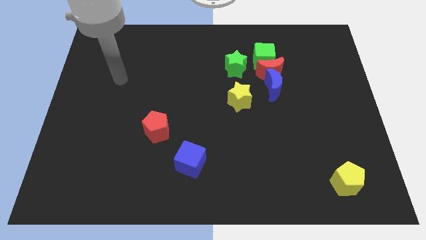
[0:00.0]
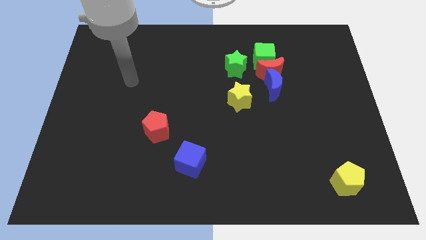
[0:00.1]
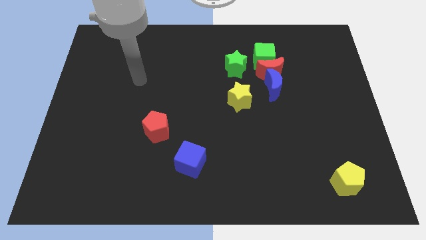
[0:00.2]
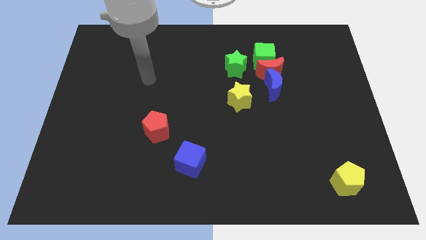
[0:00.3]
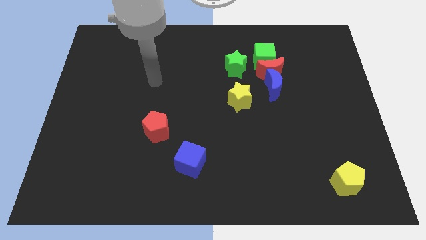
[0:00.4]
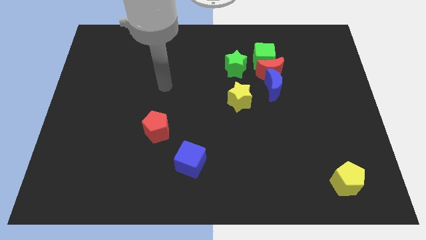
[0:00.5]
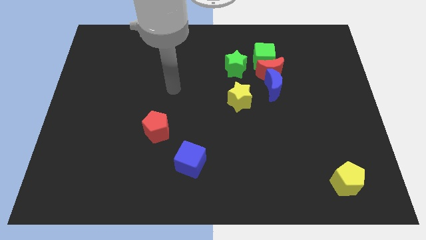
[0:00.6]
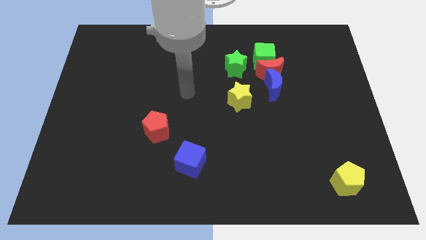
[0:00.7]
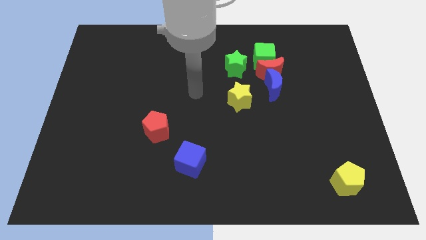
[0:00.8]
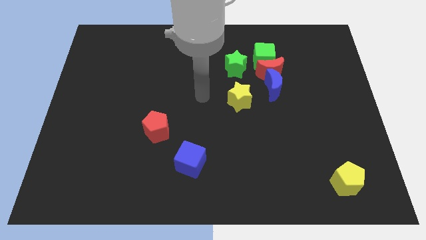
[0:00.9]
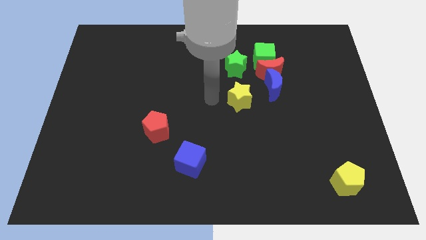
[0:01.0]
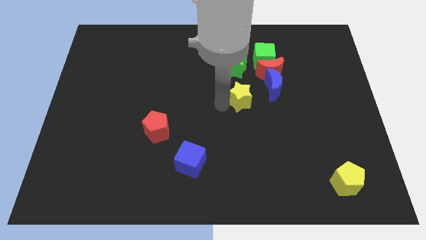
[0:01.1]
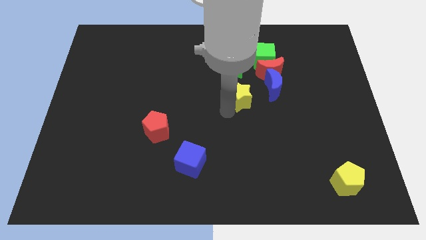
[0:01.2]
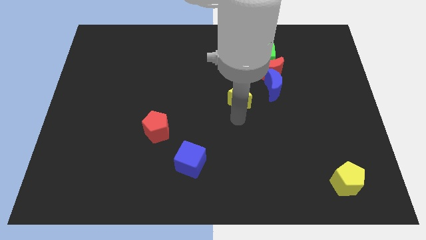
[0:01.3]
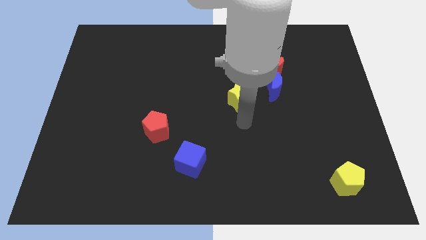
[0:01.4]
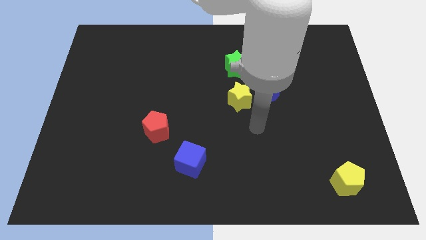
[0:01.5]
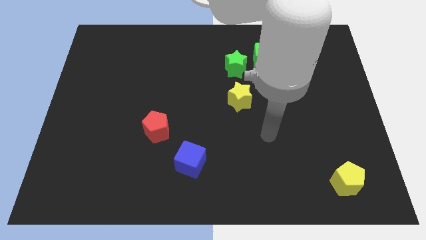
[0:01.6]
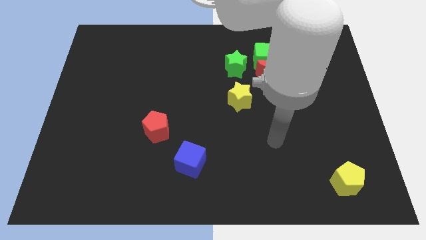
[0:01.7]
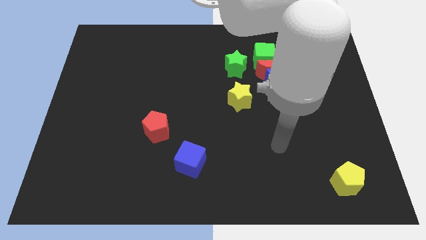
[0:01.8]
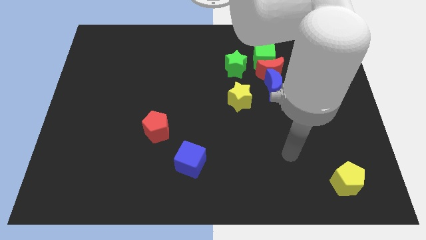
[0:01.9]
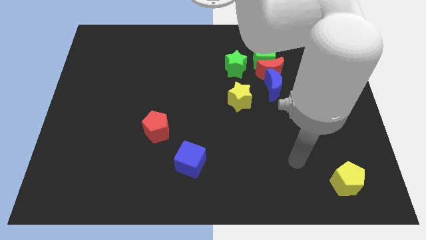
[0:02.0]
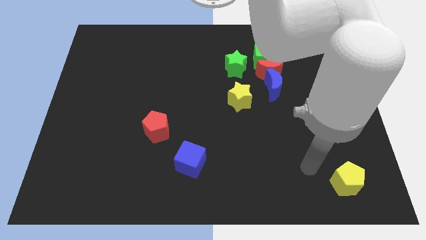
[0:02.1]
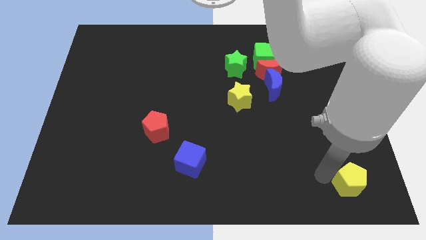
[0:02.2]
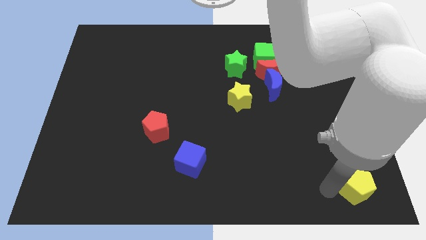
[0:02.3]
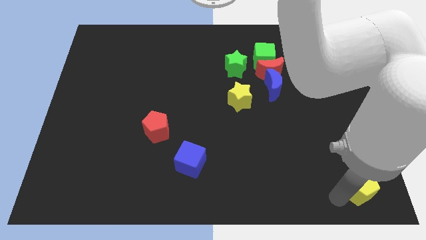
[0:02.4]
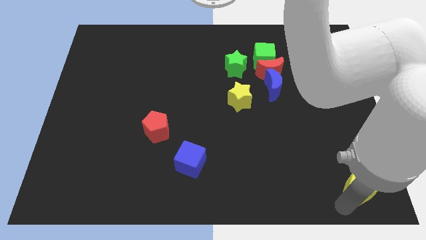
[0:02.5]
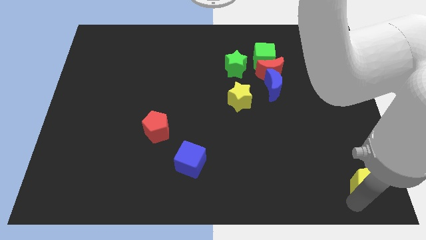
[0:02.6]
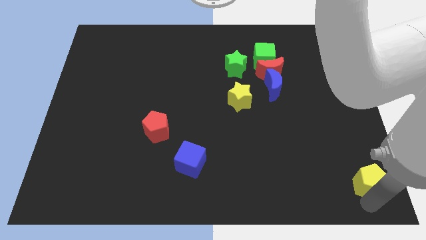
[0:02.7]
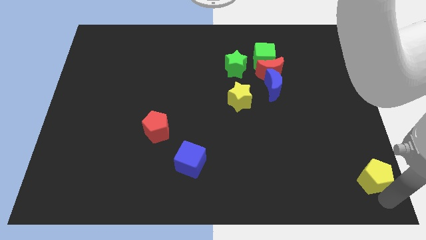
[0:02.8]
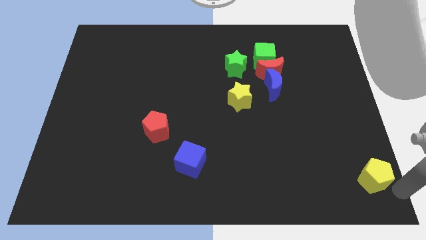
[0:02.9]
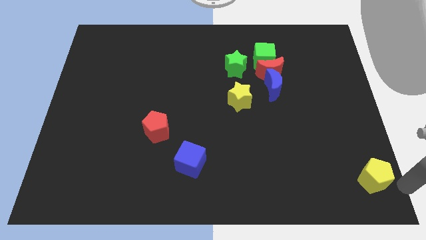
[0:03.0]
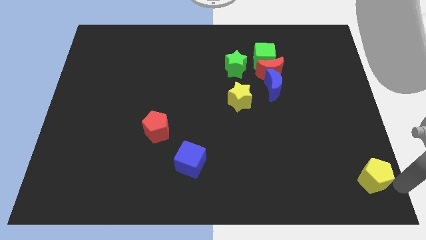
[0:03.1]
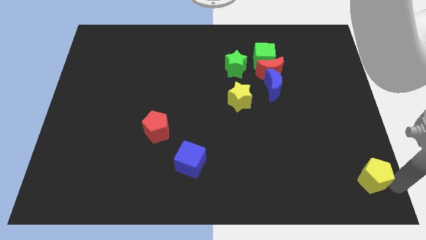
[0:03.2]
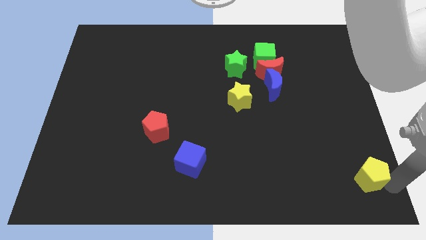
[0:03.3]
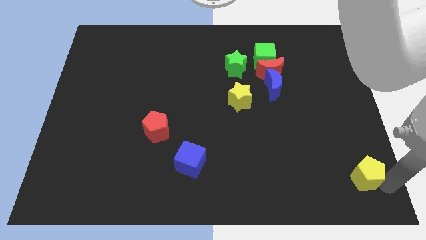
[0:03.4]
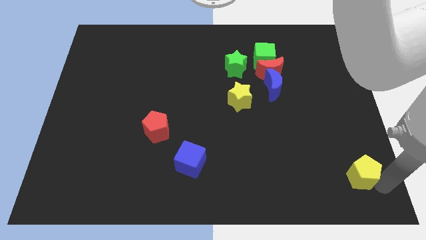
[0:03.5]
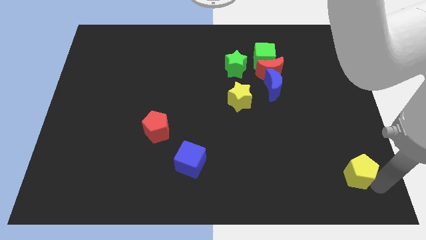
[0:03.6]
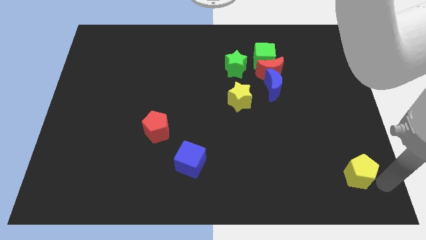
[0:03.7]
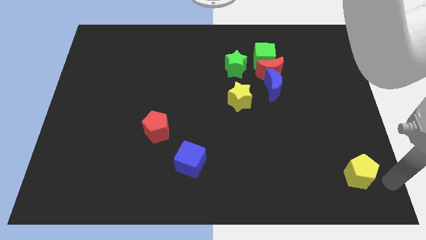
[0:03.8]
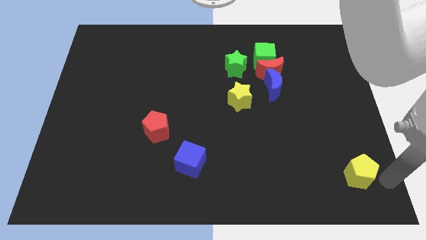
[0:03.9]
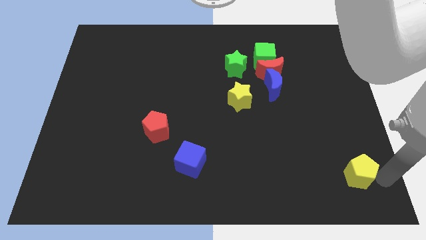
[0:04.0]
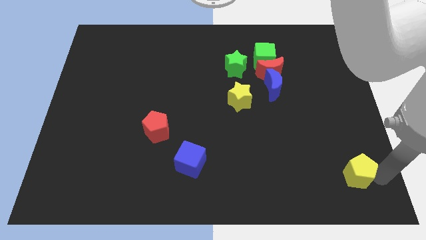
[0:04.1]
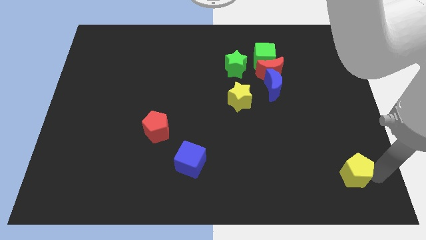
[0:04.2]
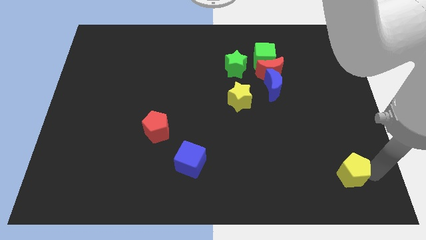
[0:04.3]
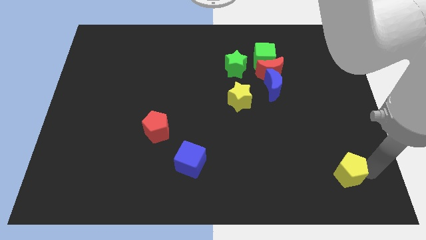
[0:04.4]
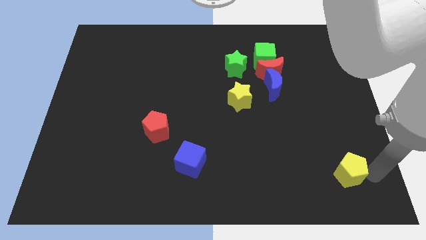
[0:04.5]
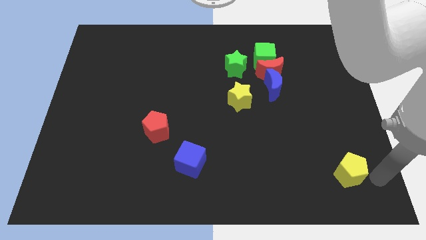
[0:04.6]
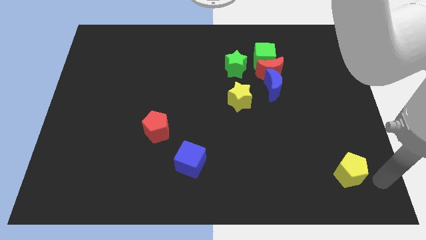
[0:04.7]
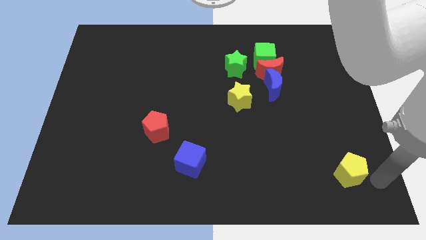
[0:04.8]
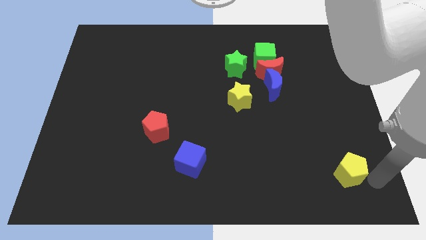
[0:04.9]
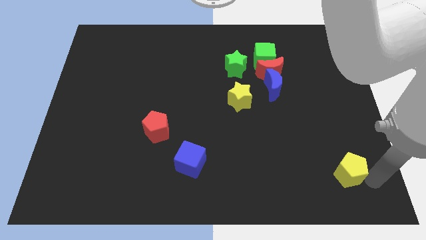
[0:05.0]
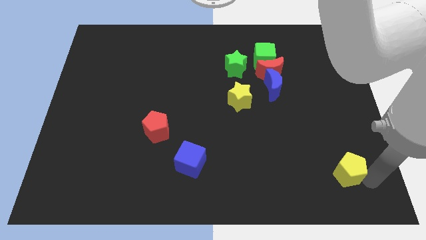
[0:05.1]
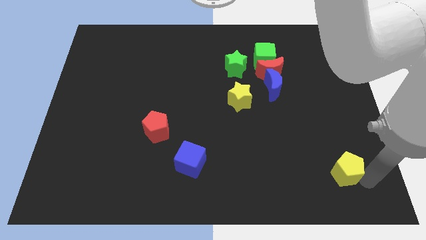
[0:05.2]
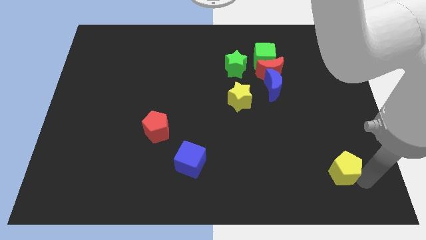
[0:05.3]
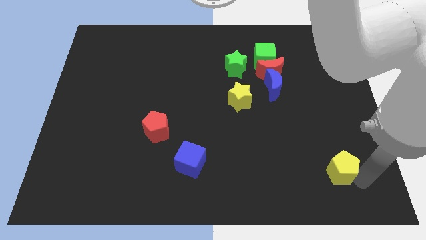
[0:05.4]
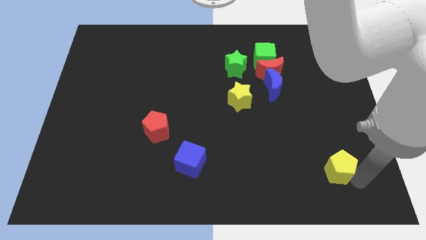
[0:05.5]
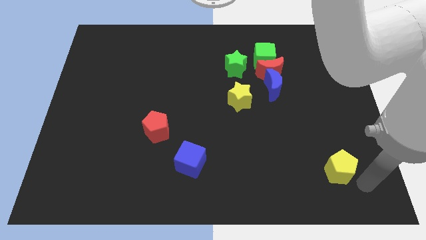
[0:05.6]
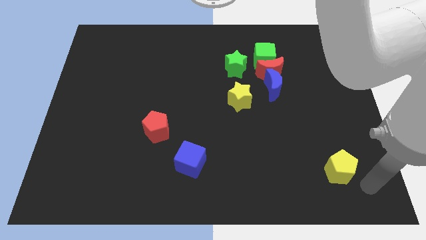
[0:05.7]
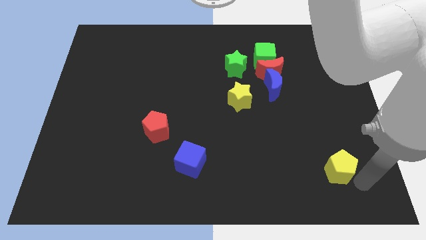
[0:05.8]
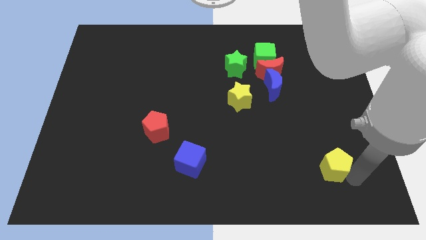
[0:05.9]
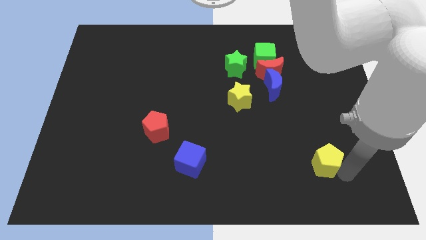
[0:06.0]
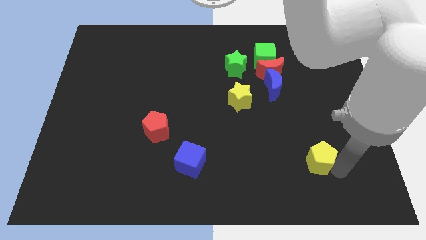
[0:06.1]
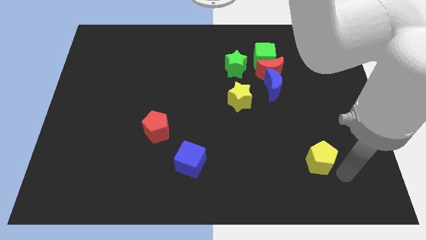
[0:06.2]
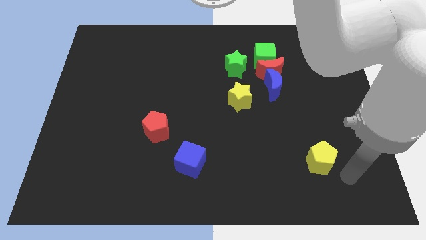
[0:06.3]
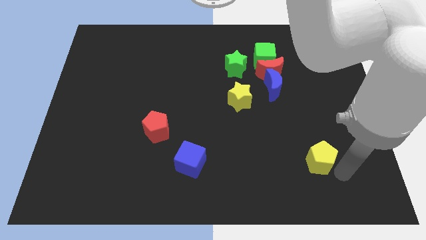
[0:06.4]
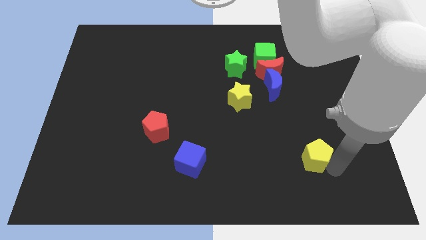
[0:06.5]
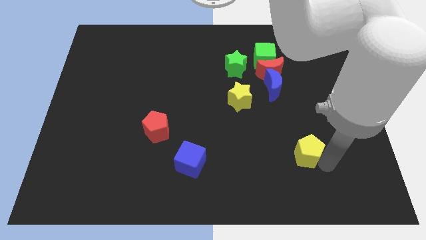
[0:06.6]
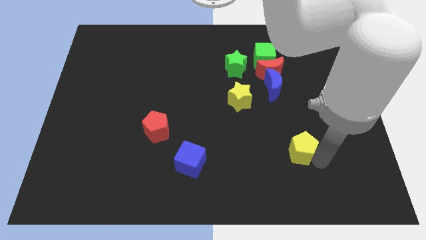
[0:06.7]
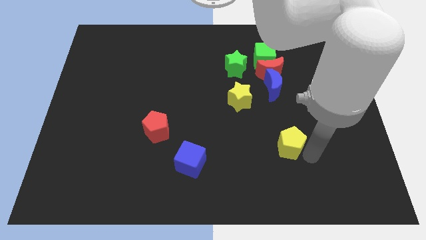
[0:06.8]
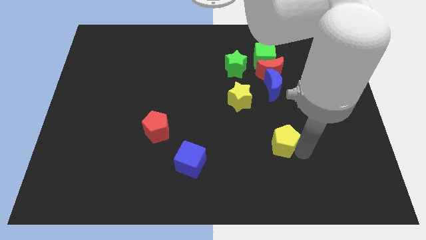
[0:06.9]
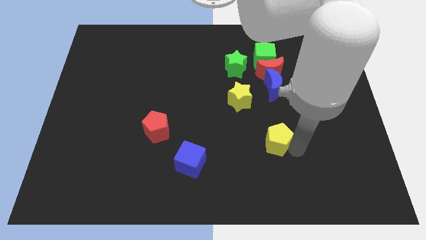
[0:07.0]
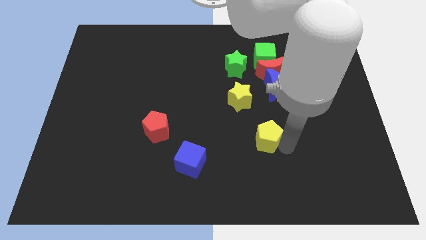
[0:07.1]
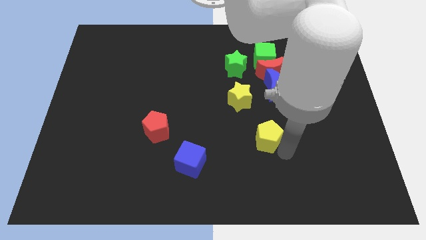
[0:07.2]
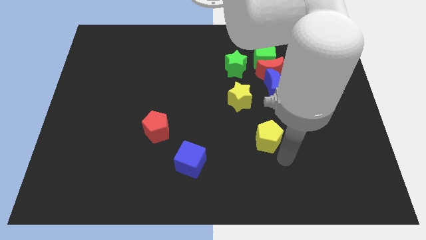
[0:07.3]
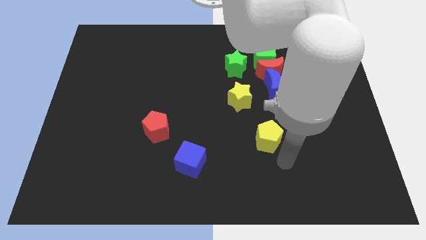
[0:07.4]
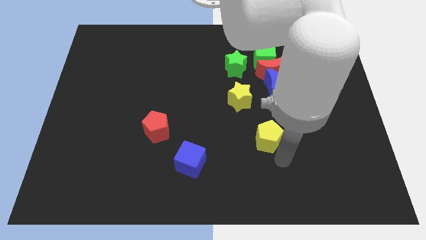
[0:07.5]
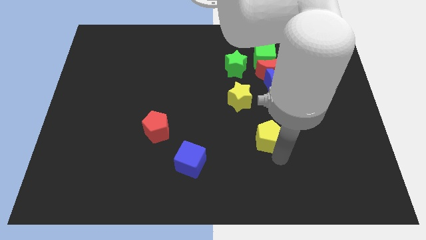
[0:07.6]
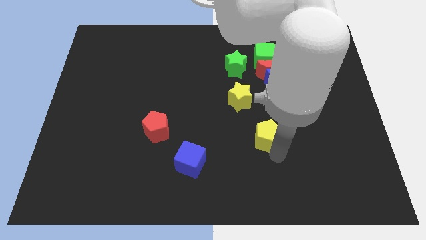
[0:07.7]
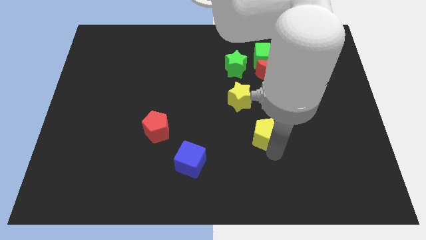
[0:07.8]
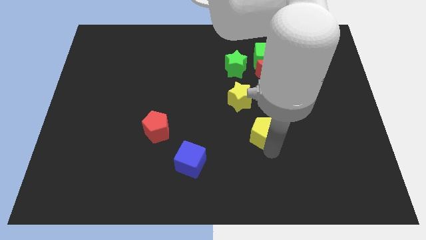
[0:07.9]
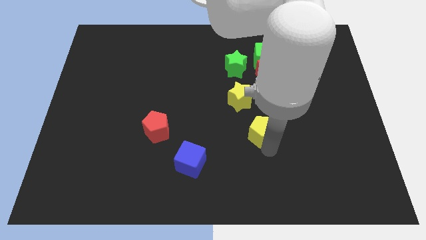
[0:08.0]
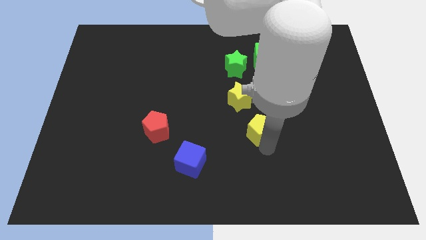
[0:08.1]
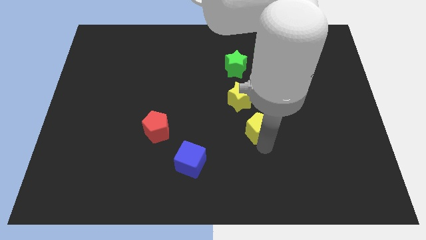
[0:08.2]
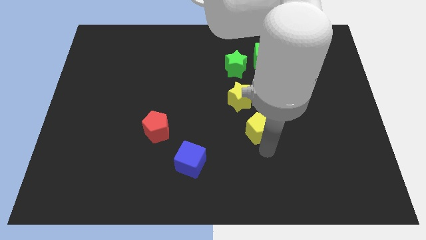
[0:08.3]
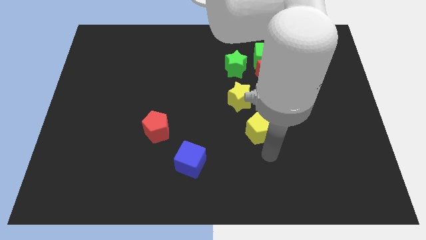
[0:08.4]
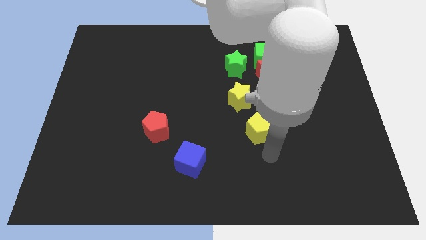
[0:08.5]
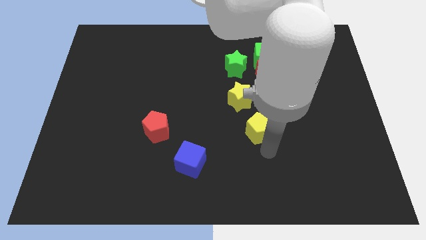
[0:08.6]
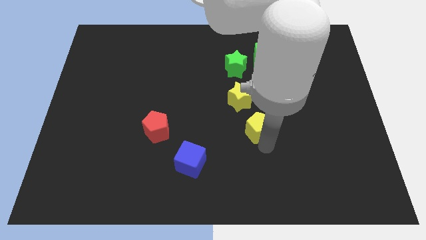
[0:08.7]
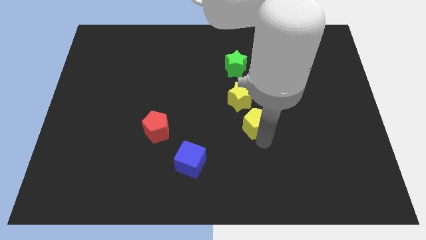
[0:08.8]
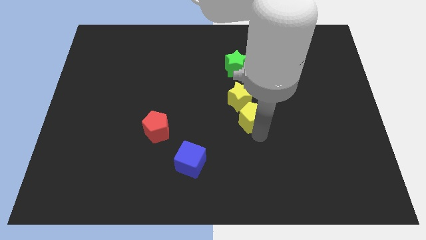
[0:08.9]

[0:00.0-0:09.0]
move the yellow pentagon diagonally down and to the left of the blue moon
